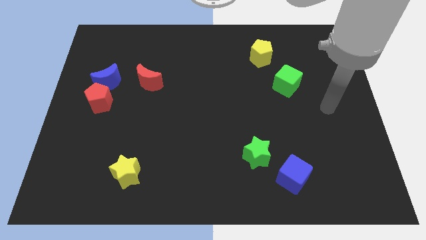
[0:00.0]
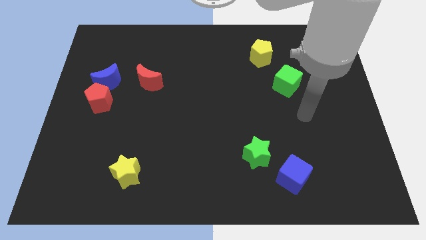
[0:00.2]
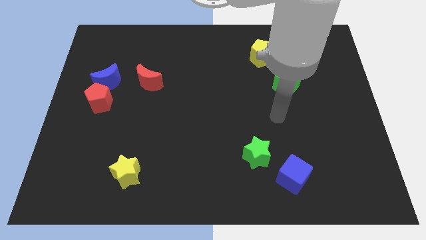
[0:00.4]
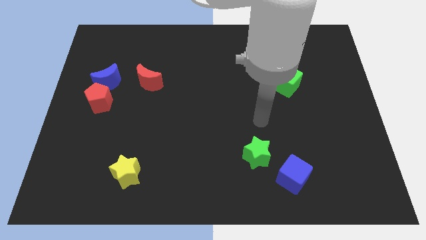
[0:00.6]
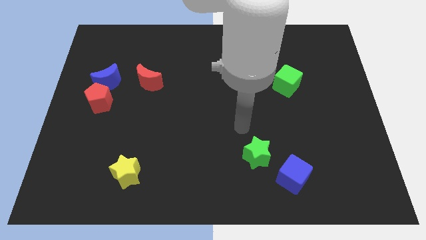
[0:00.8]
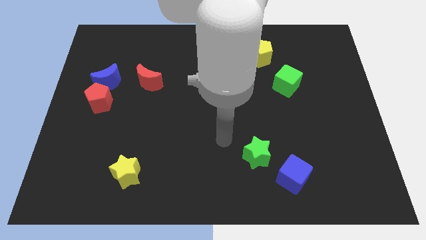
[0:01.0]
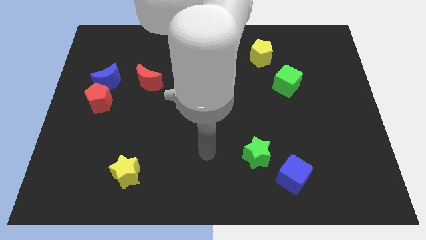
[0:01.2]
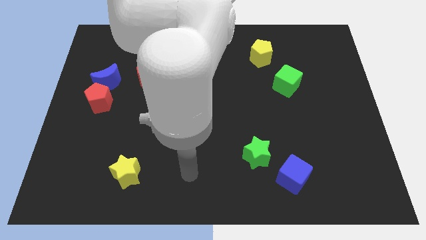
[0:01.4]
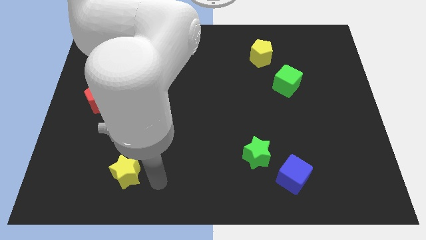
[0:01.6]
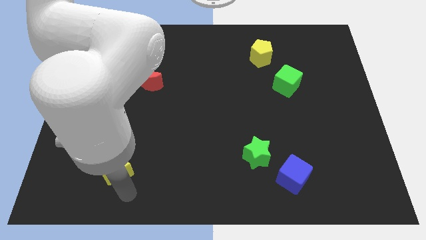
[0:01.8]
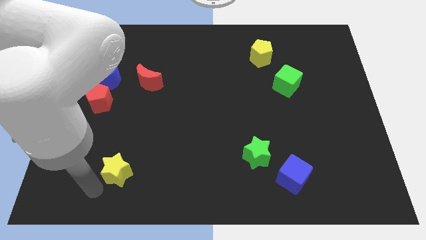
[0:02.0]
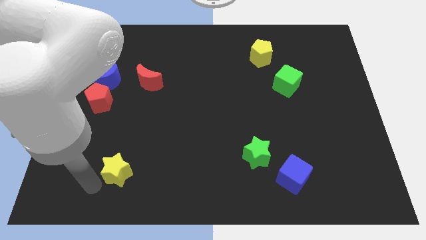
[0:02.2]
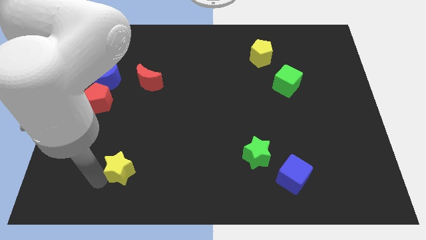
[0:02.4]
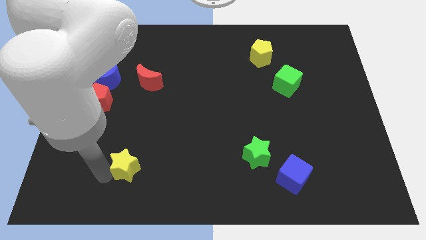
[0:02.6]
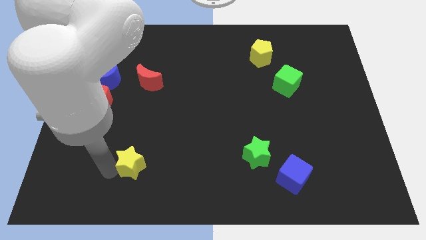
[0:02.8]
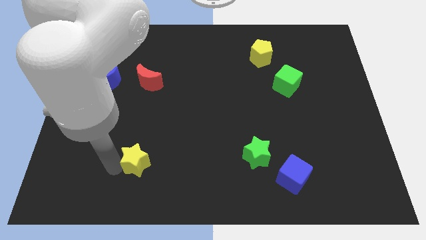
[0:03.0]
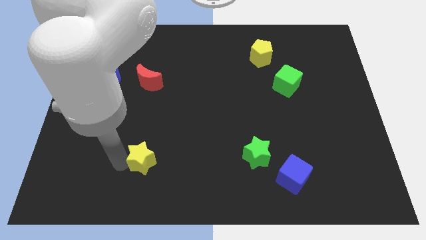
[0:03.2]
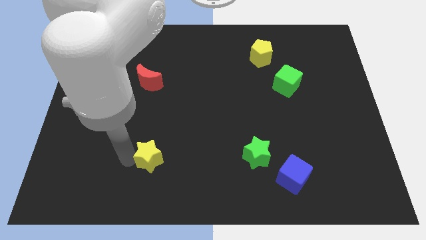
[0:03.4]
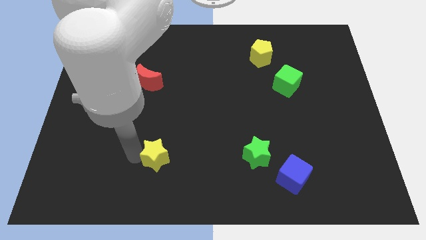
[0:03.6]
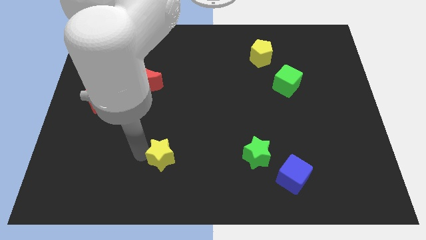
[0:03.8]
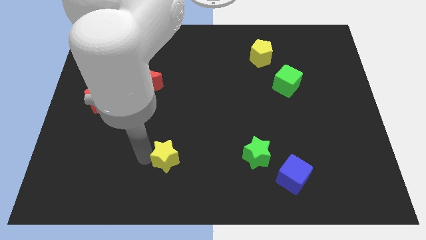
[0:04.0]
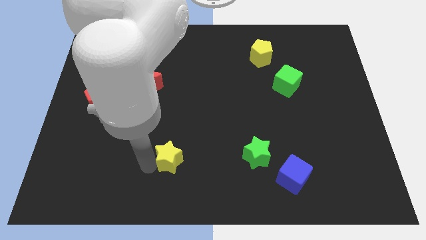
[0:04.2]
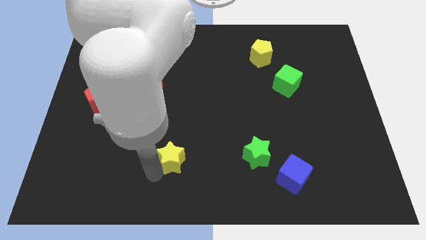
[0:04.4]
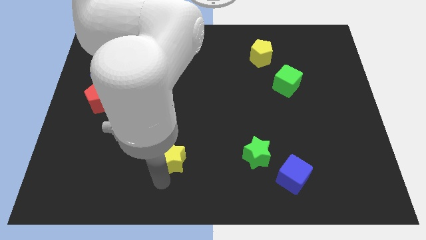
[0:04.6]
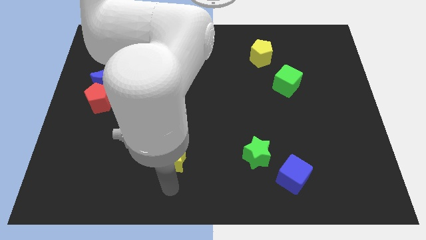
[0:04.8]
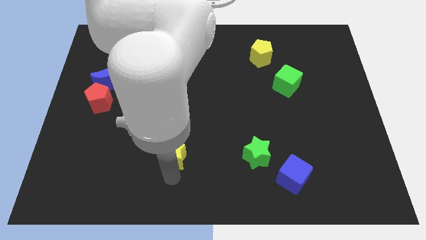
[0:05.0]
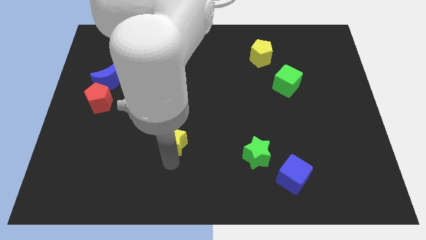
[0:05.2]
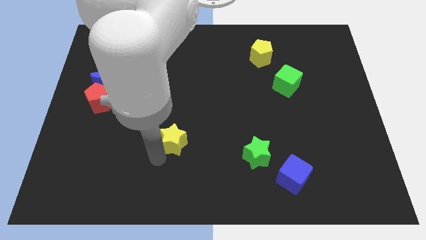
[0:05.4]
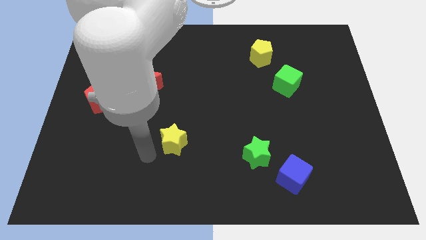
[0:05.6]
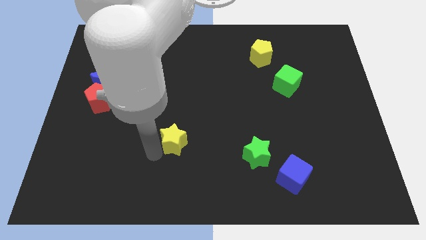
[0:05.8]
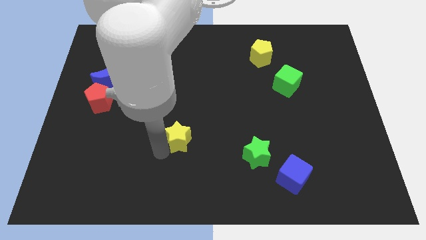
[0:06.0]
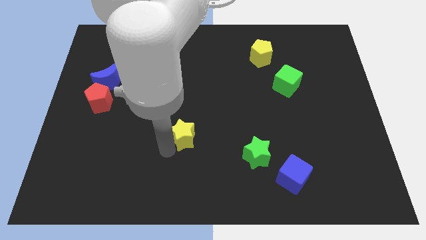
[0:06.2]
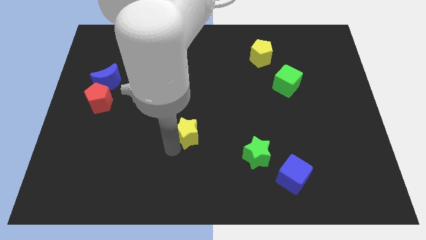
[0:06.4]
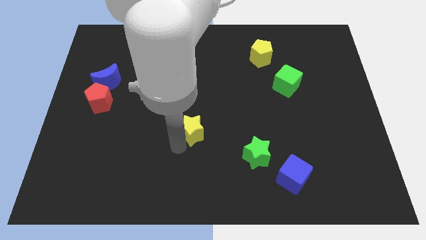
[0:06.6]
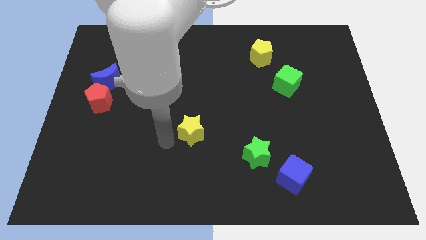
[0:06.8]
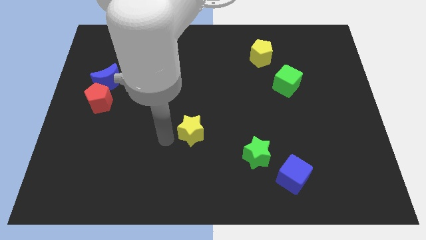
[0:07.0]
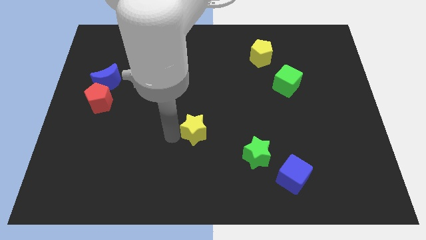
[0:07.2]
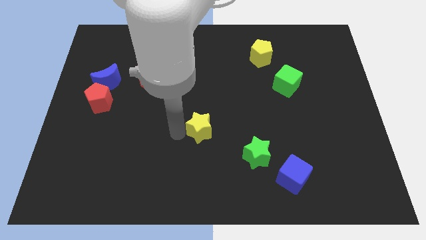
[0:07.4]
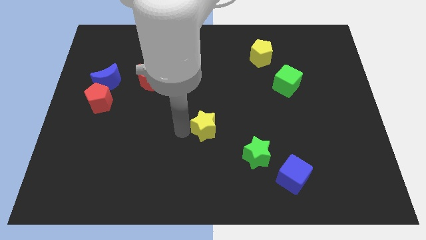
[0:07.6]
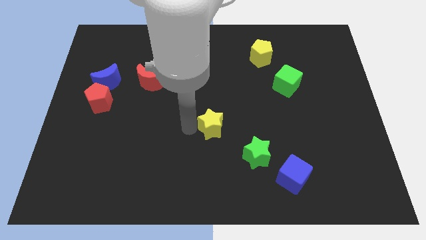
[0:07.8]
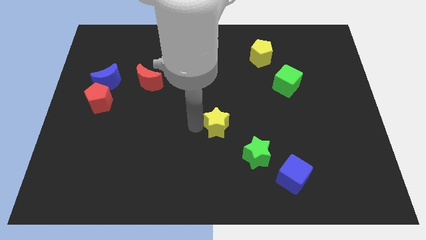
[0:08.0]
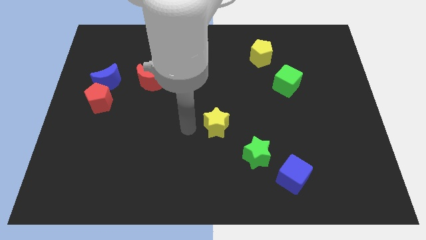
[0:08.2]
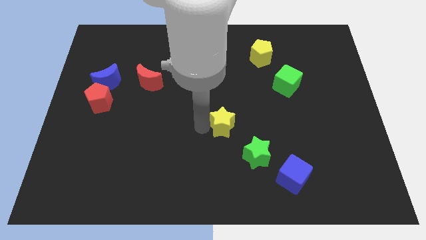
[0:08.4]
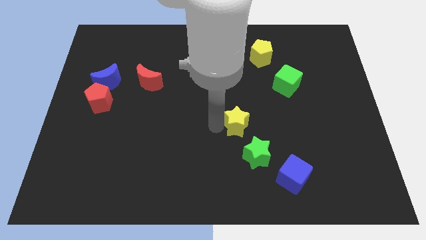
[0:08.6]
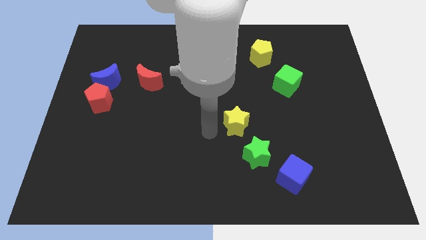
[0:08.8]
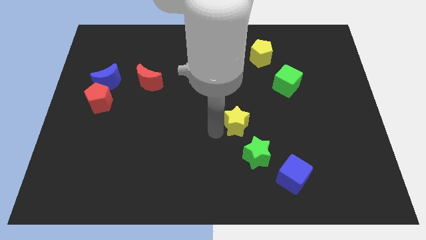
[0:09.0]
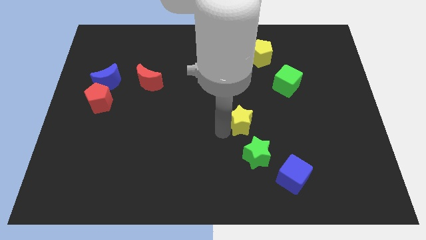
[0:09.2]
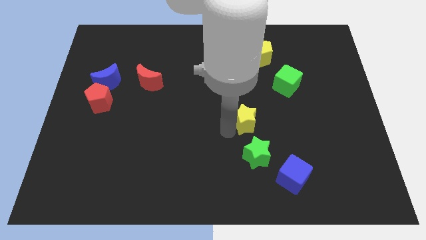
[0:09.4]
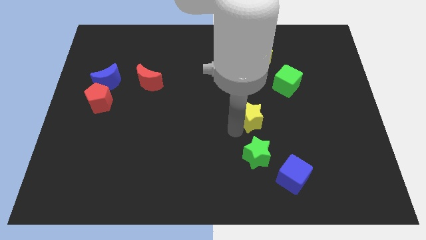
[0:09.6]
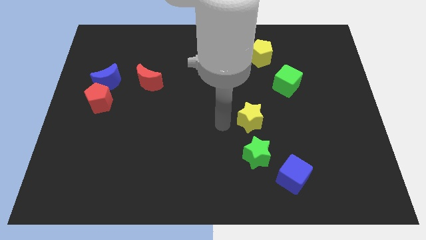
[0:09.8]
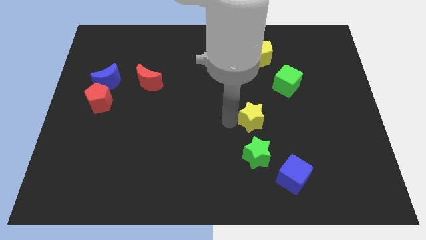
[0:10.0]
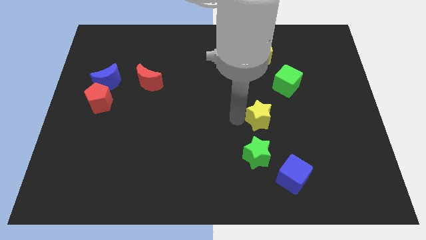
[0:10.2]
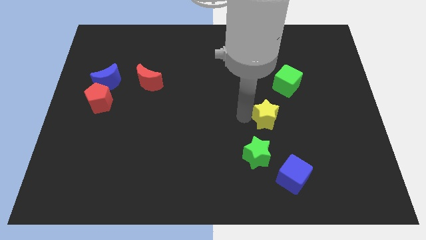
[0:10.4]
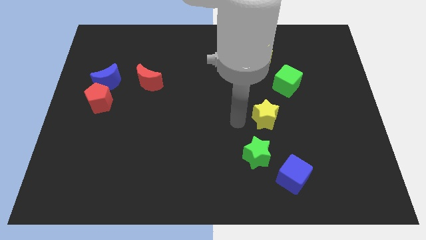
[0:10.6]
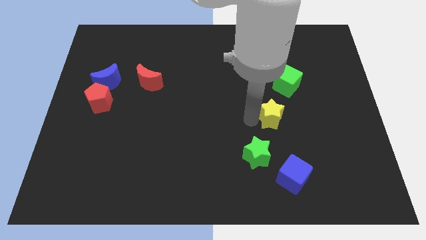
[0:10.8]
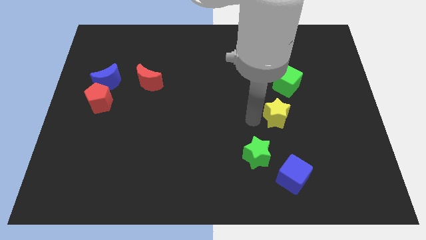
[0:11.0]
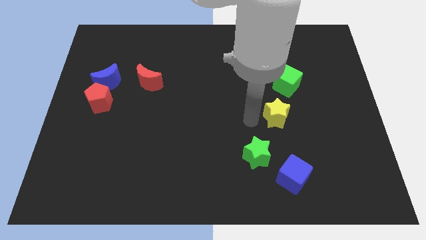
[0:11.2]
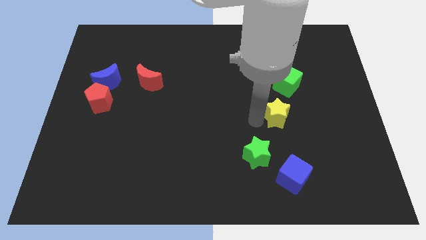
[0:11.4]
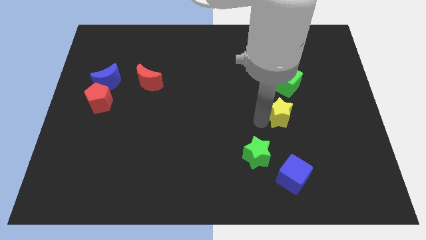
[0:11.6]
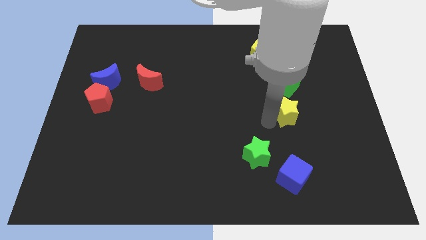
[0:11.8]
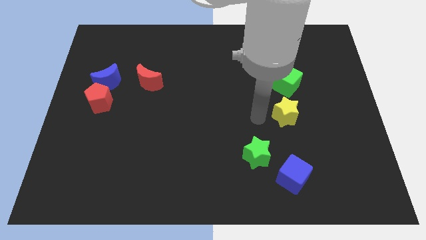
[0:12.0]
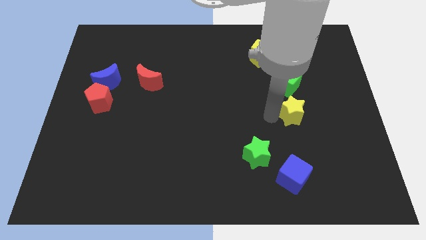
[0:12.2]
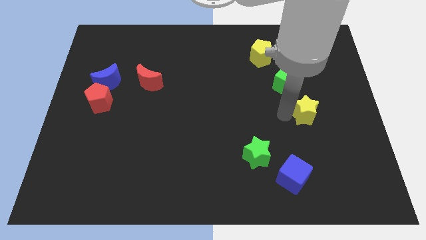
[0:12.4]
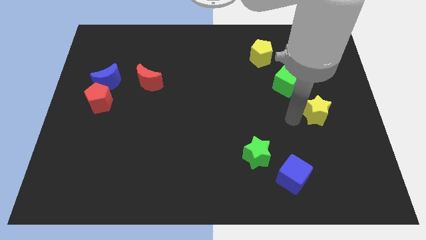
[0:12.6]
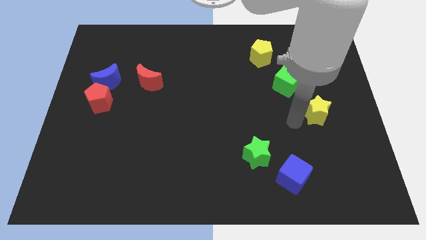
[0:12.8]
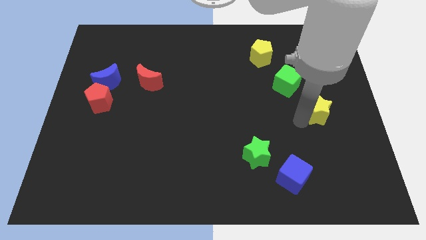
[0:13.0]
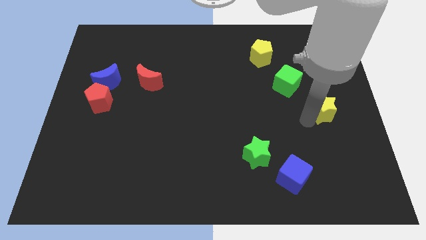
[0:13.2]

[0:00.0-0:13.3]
move the yellow star to the right side of the board
